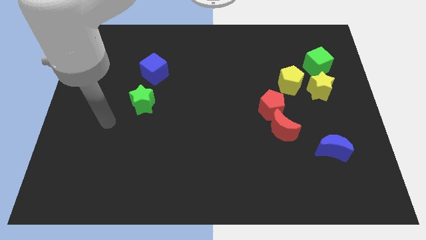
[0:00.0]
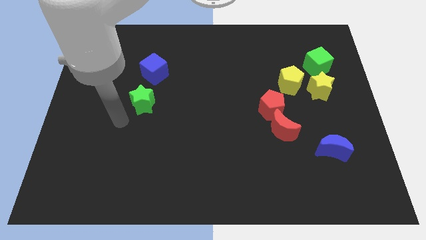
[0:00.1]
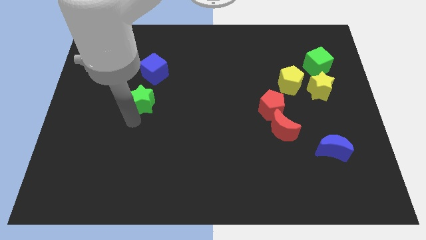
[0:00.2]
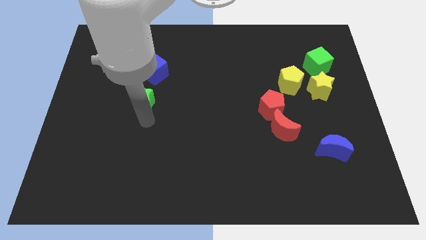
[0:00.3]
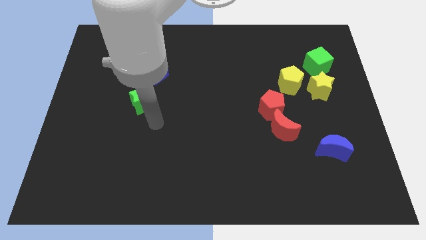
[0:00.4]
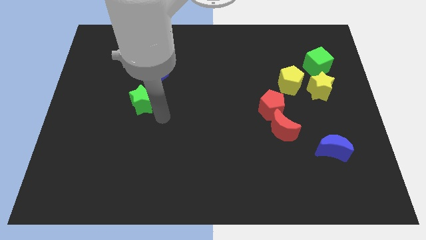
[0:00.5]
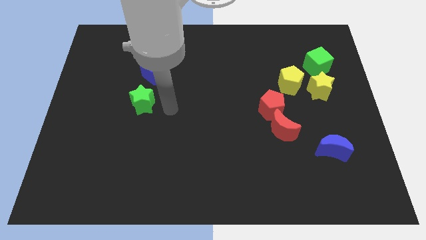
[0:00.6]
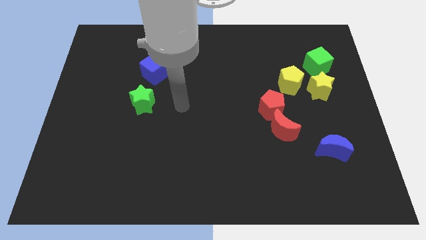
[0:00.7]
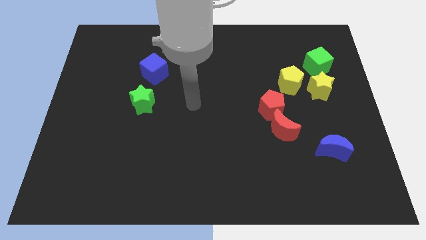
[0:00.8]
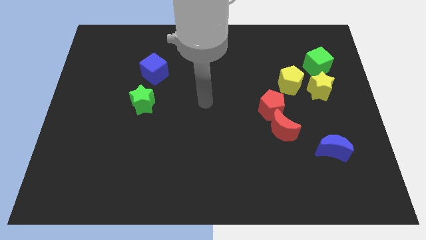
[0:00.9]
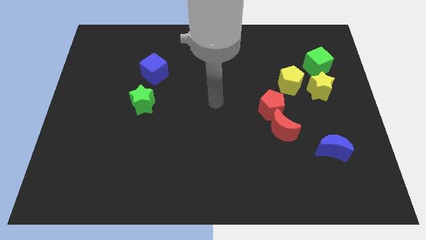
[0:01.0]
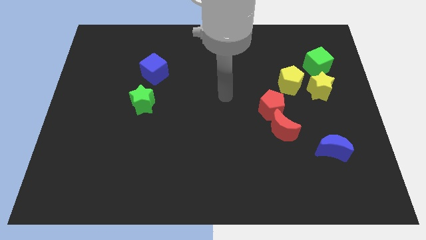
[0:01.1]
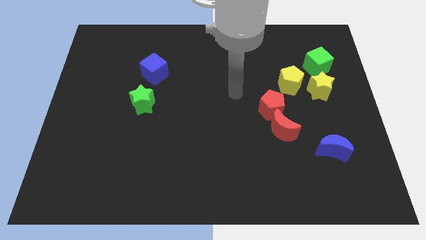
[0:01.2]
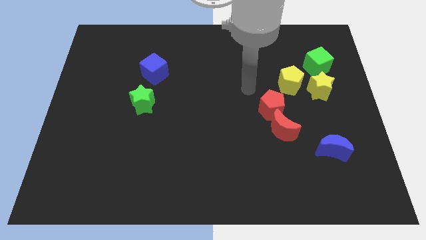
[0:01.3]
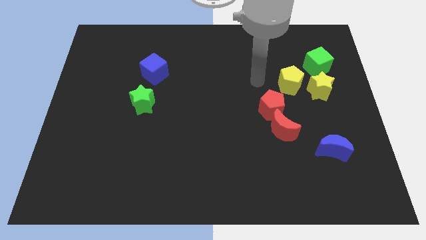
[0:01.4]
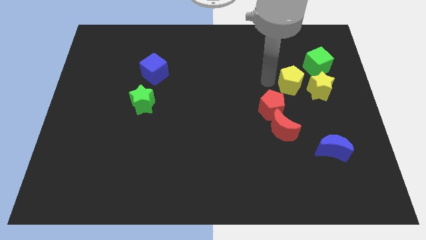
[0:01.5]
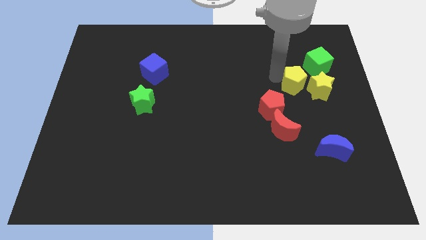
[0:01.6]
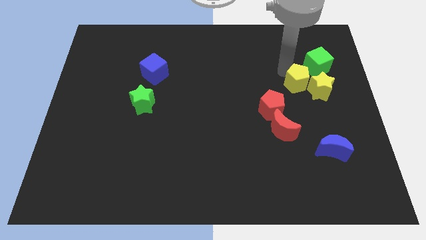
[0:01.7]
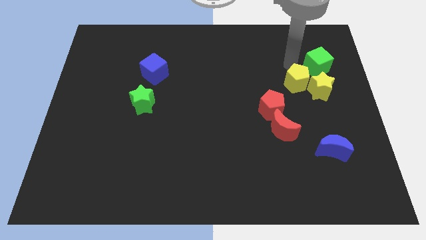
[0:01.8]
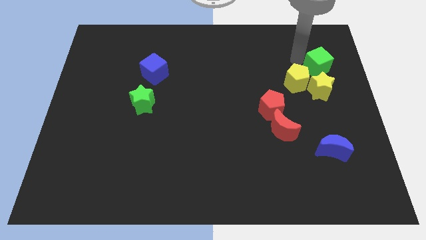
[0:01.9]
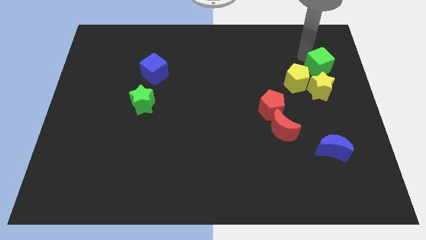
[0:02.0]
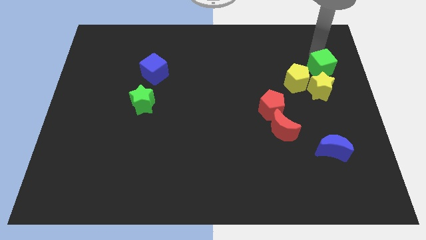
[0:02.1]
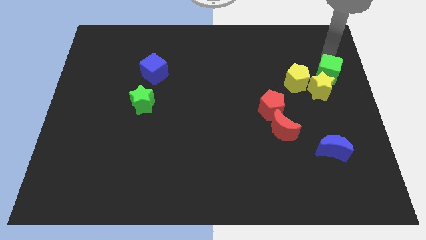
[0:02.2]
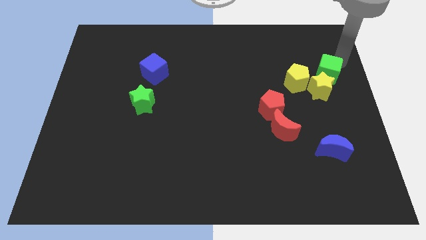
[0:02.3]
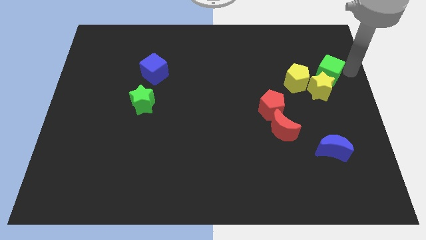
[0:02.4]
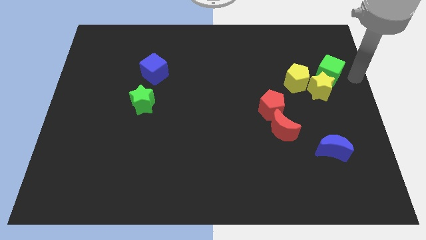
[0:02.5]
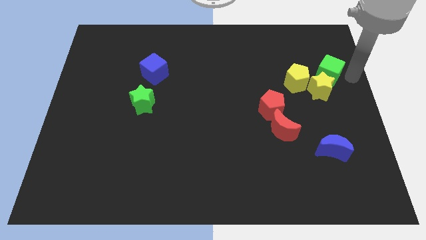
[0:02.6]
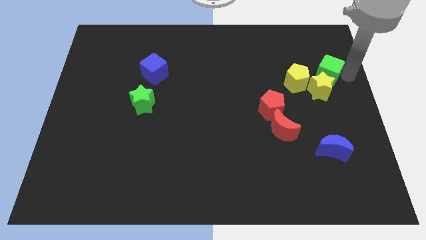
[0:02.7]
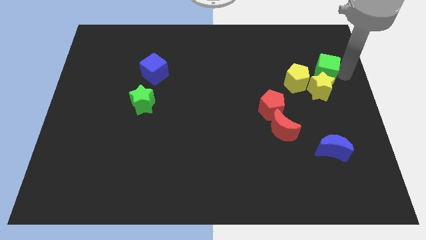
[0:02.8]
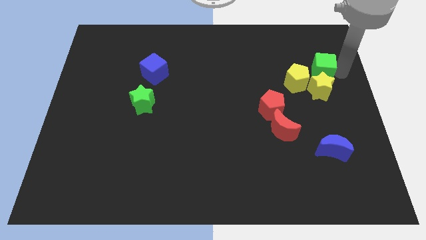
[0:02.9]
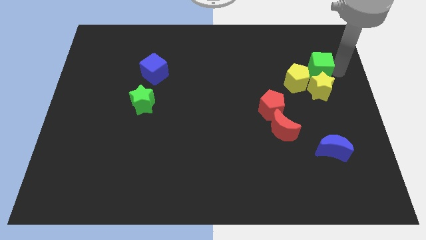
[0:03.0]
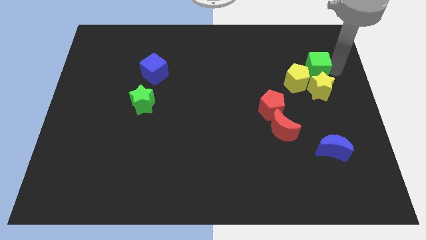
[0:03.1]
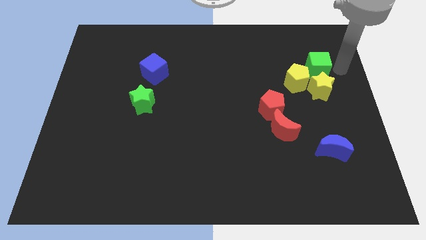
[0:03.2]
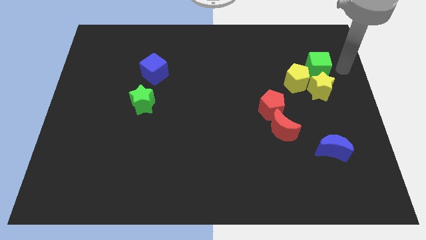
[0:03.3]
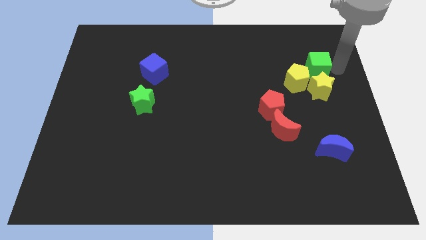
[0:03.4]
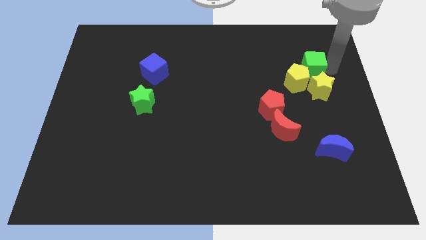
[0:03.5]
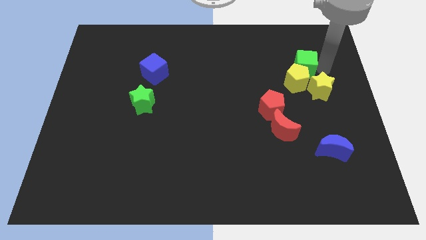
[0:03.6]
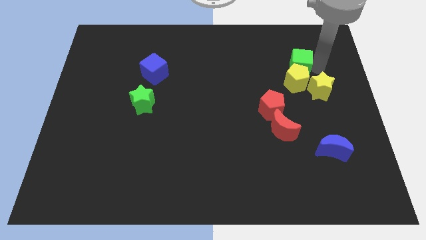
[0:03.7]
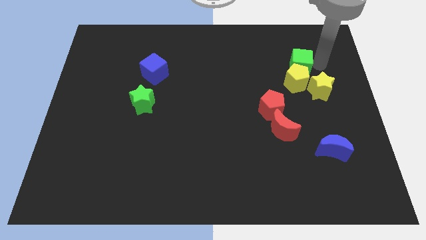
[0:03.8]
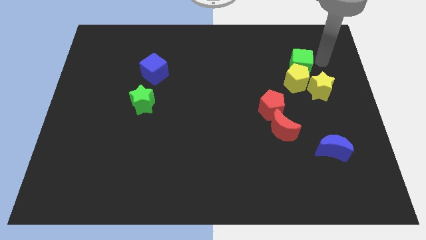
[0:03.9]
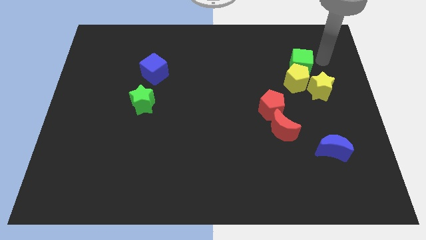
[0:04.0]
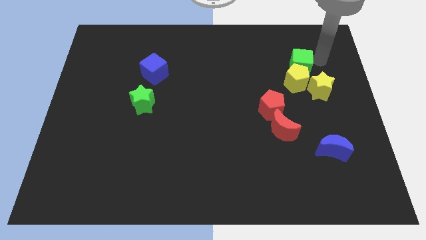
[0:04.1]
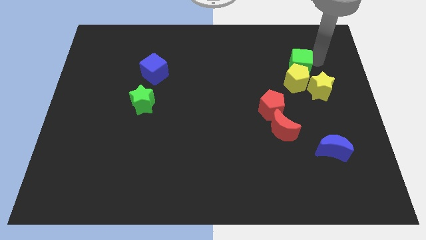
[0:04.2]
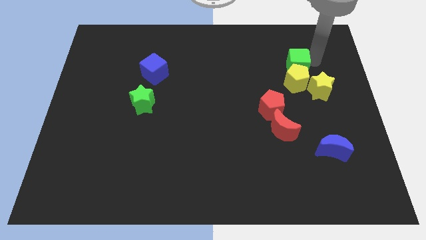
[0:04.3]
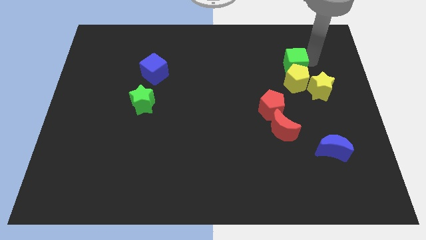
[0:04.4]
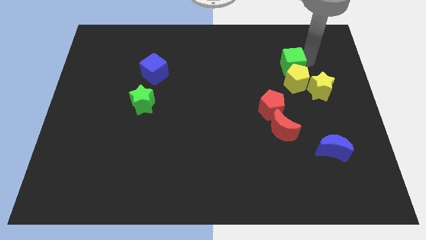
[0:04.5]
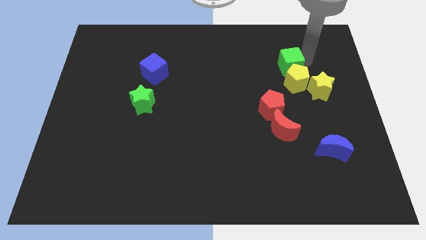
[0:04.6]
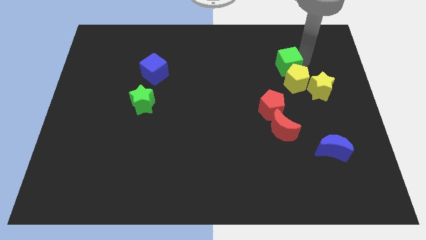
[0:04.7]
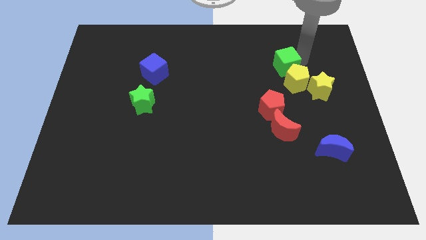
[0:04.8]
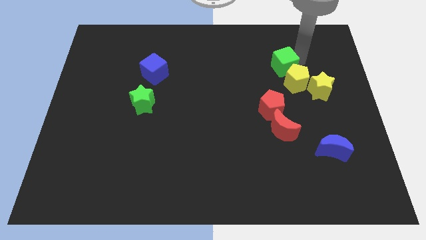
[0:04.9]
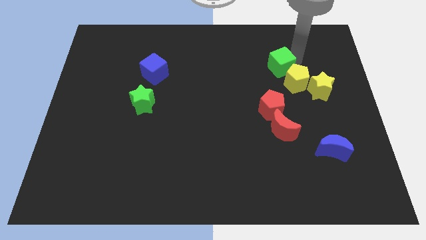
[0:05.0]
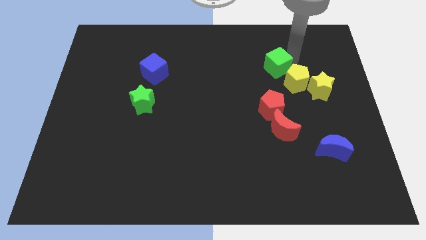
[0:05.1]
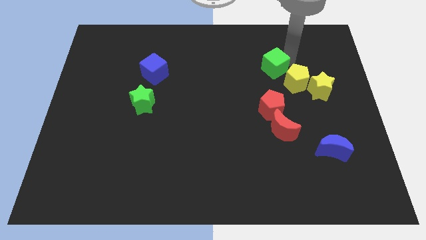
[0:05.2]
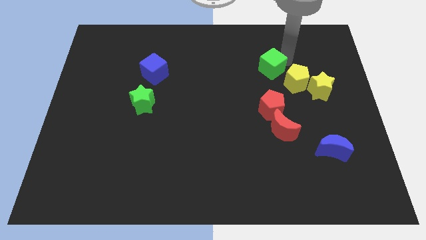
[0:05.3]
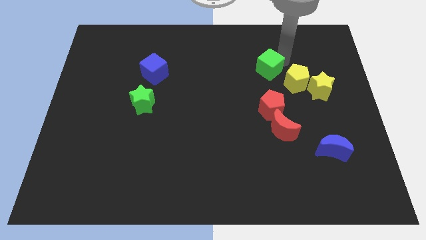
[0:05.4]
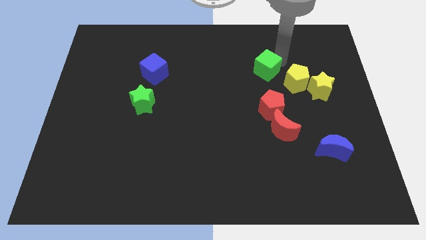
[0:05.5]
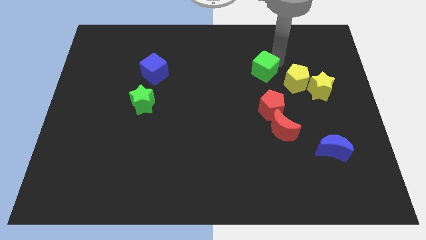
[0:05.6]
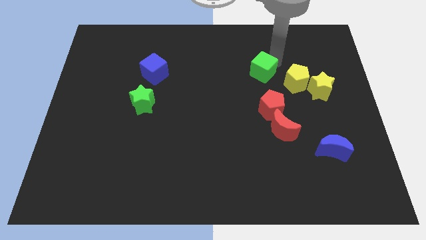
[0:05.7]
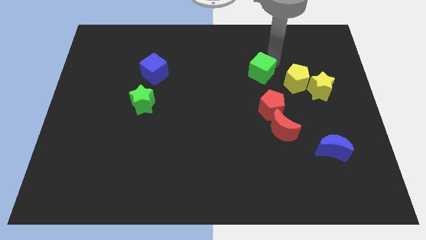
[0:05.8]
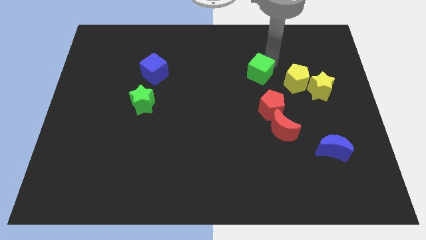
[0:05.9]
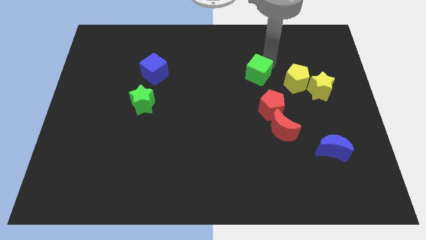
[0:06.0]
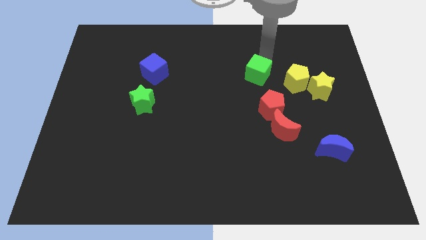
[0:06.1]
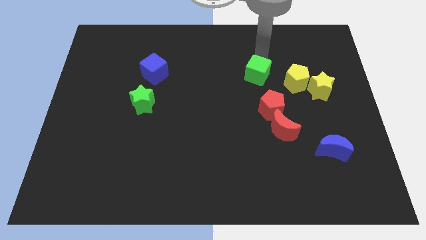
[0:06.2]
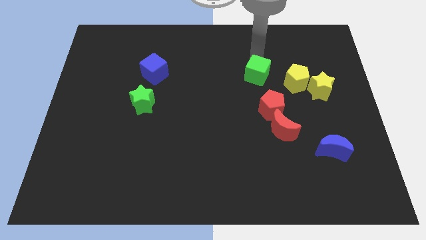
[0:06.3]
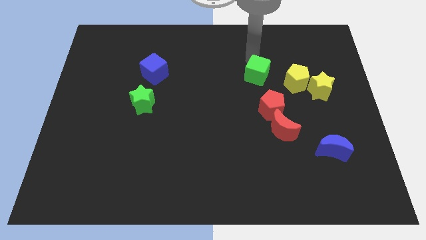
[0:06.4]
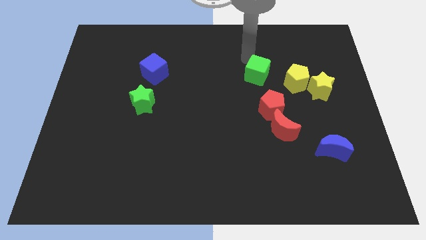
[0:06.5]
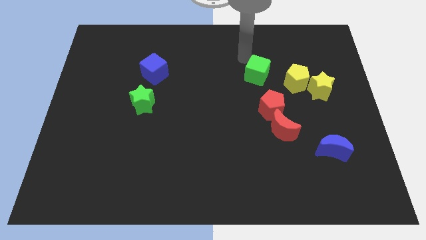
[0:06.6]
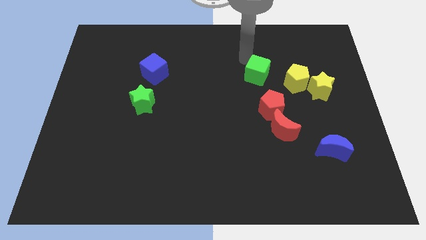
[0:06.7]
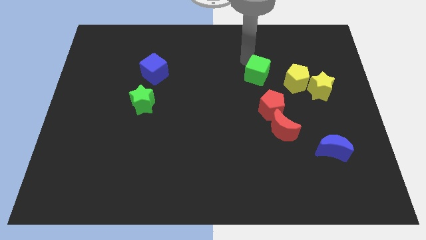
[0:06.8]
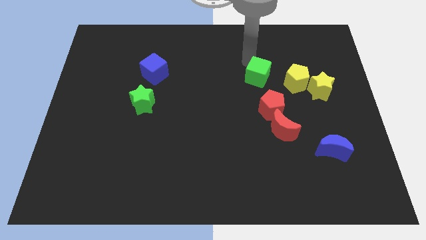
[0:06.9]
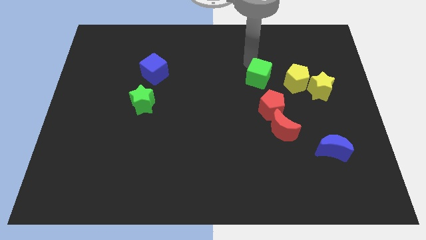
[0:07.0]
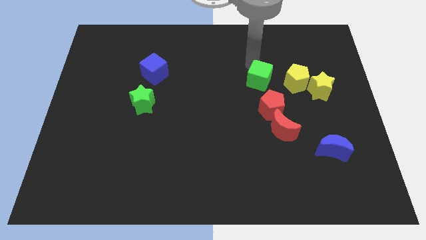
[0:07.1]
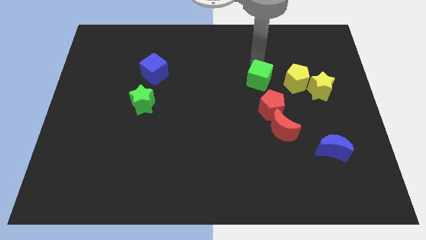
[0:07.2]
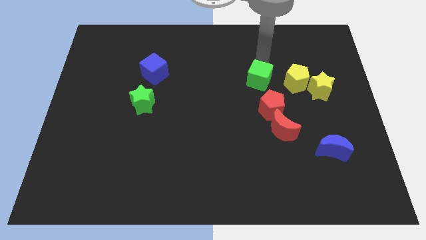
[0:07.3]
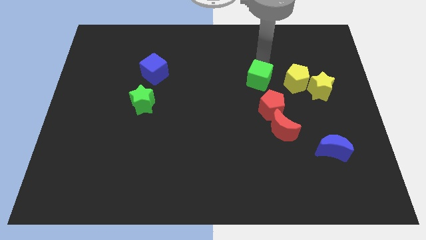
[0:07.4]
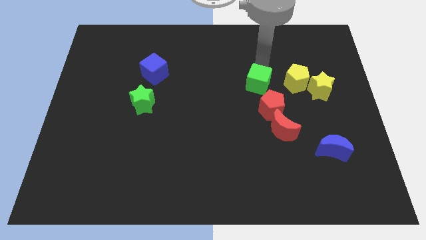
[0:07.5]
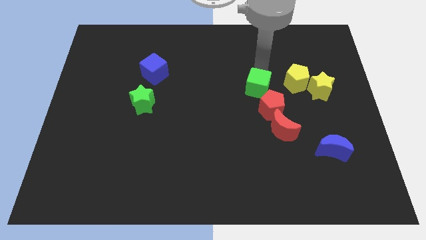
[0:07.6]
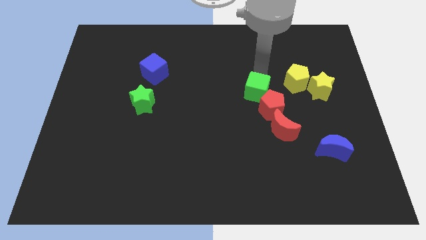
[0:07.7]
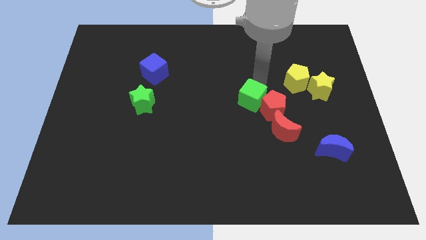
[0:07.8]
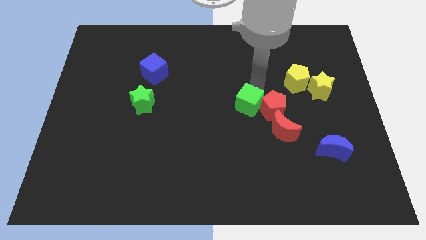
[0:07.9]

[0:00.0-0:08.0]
move the green cube diagonally down and left
